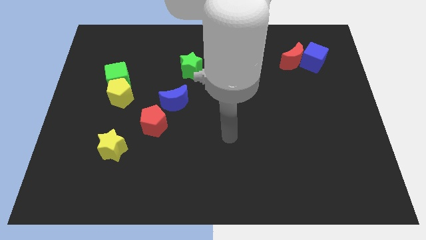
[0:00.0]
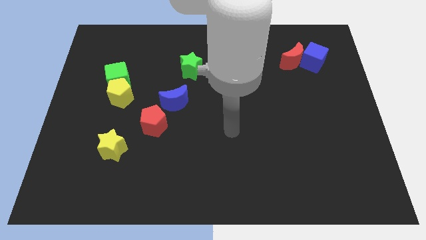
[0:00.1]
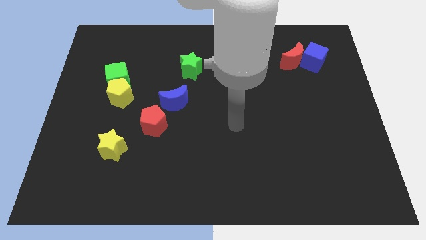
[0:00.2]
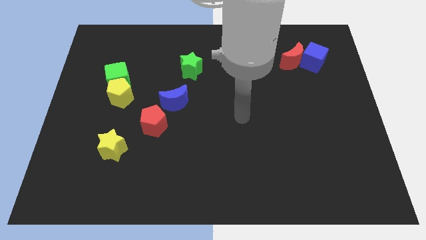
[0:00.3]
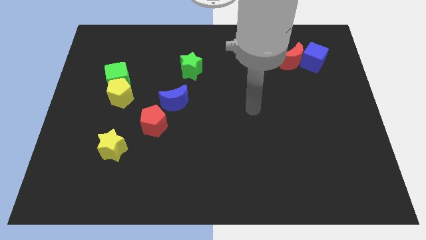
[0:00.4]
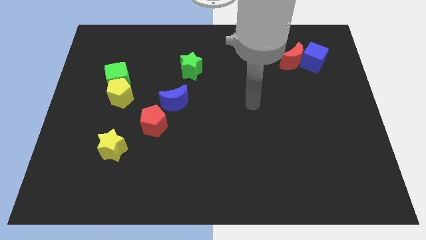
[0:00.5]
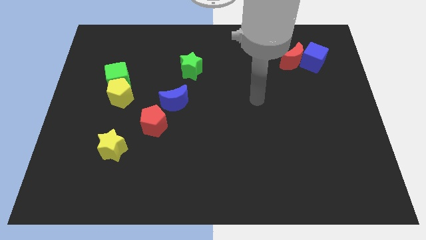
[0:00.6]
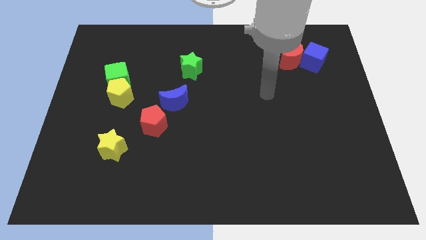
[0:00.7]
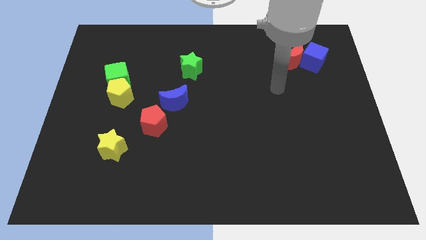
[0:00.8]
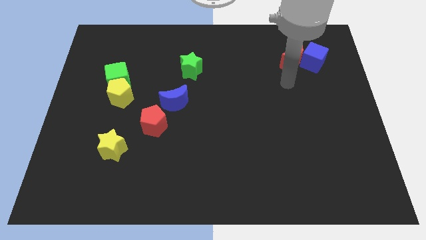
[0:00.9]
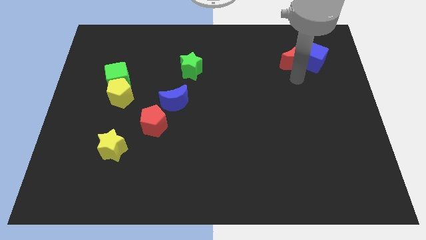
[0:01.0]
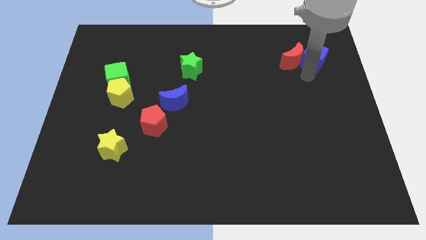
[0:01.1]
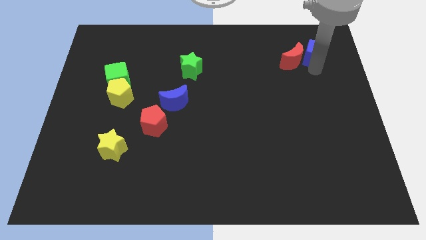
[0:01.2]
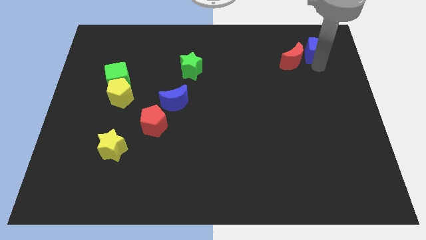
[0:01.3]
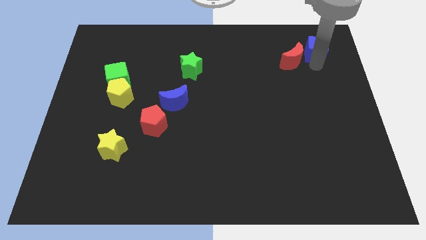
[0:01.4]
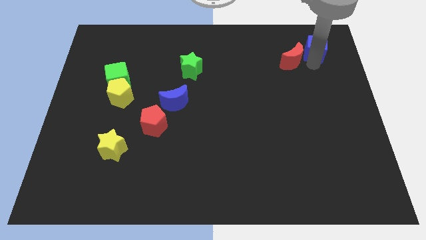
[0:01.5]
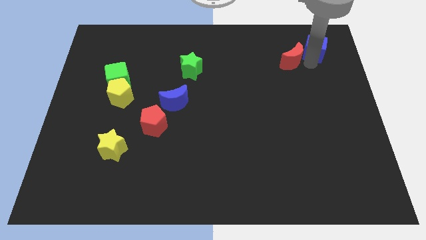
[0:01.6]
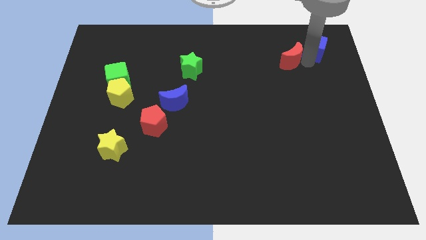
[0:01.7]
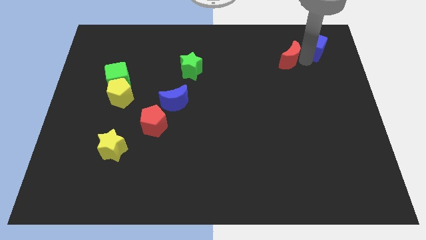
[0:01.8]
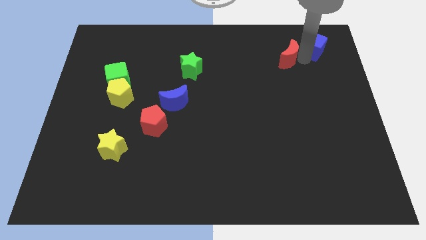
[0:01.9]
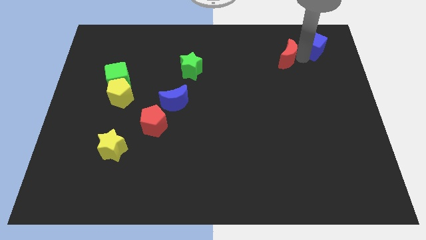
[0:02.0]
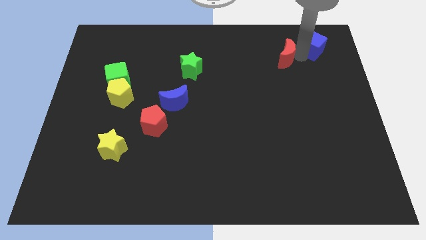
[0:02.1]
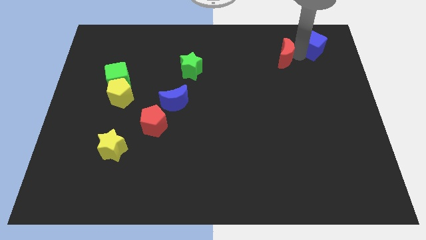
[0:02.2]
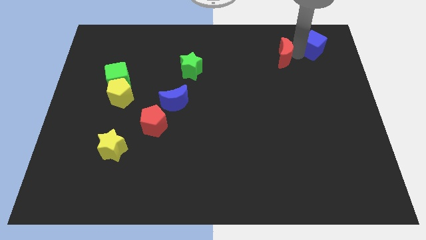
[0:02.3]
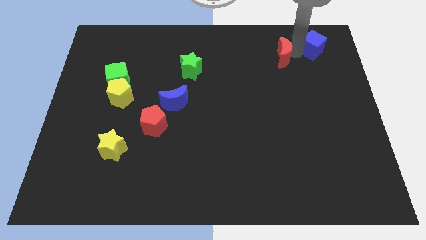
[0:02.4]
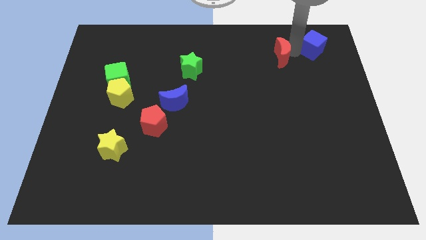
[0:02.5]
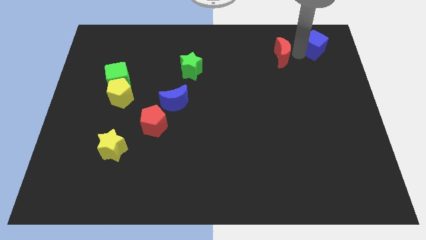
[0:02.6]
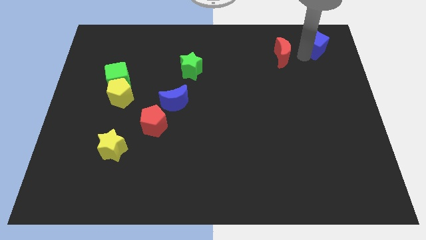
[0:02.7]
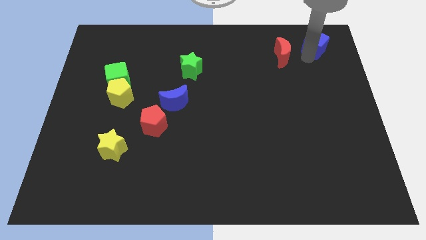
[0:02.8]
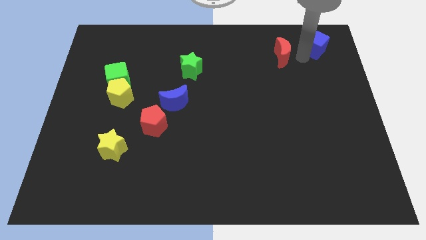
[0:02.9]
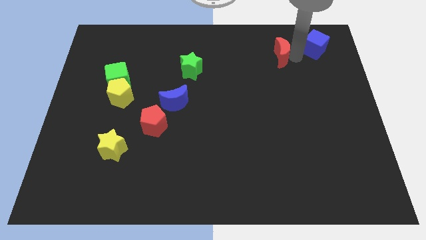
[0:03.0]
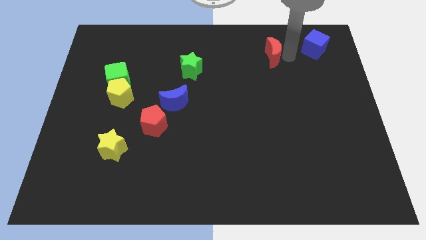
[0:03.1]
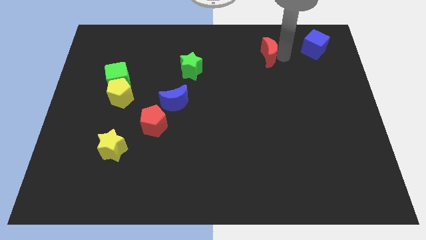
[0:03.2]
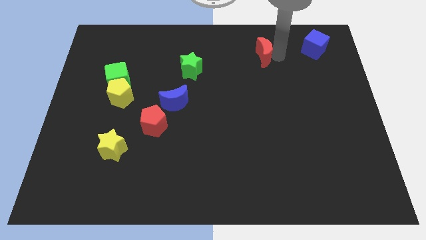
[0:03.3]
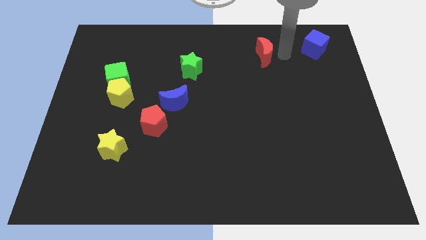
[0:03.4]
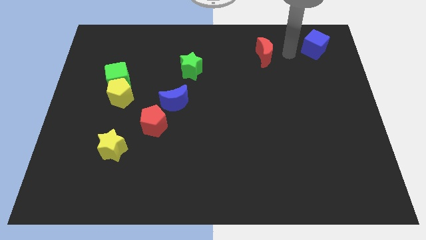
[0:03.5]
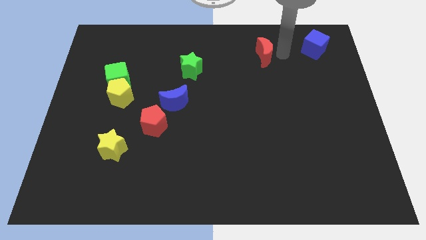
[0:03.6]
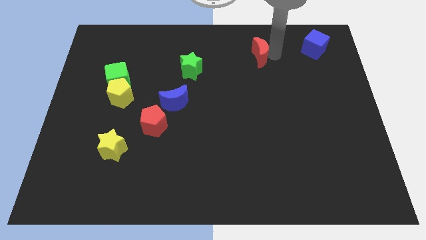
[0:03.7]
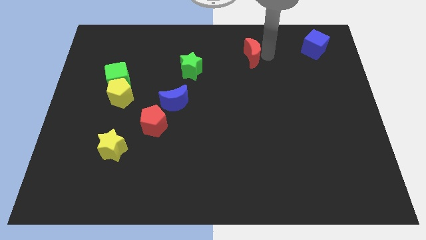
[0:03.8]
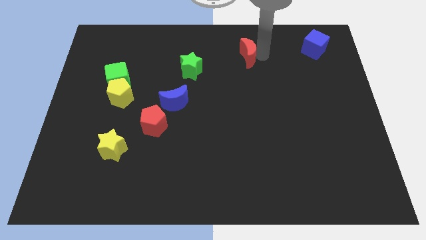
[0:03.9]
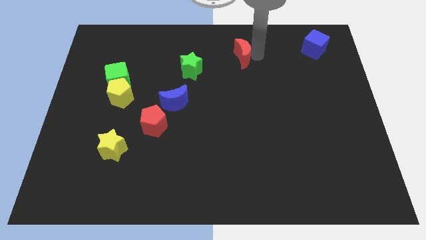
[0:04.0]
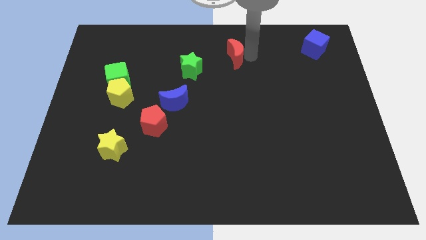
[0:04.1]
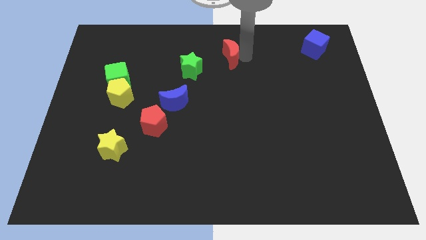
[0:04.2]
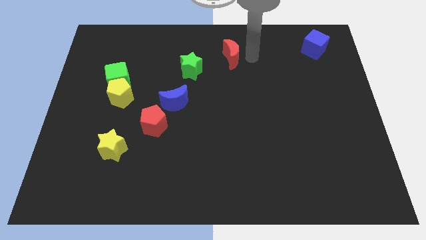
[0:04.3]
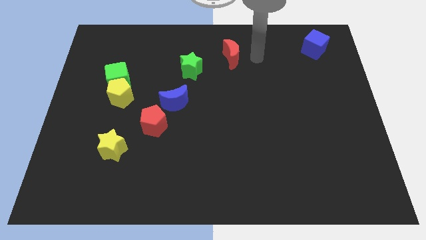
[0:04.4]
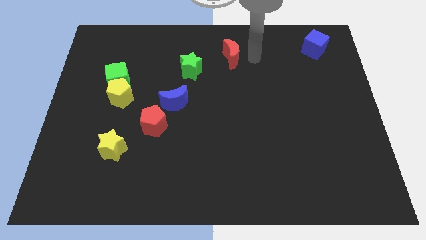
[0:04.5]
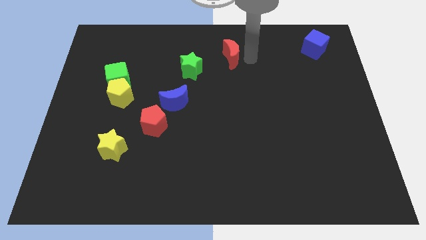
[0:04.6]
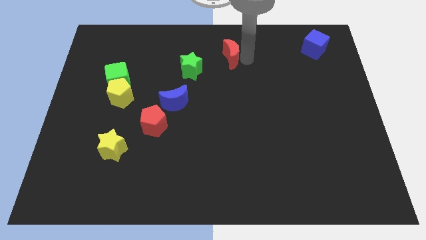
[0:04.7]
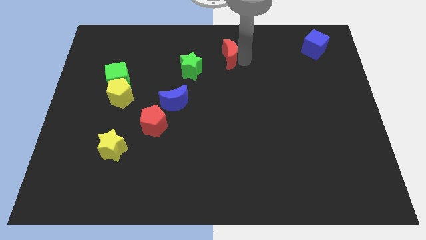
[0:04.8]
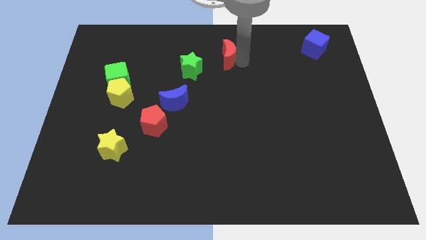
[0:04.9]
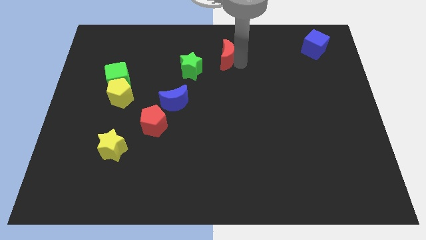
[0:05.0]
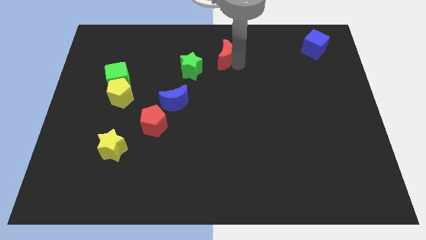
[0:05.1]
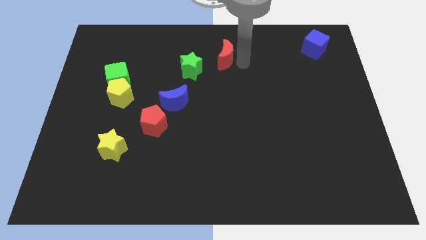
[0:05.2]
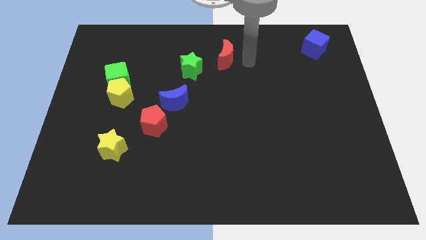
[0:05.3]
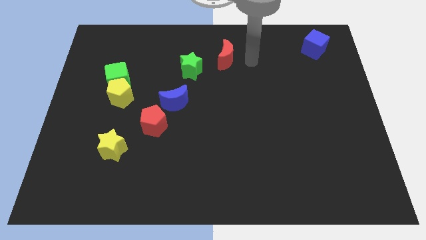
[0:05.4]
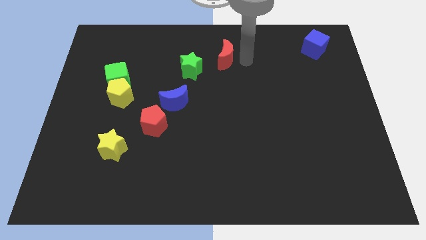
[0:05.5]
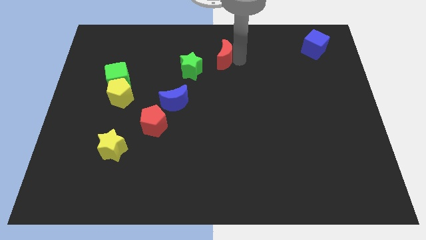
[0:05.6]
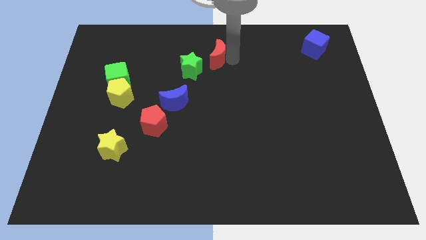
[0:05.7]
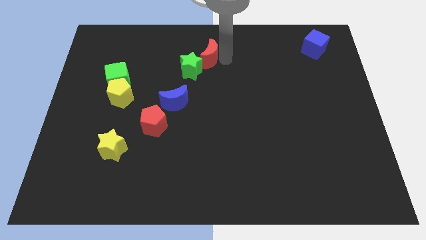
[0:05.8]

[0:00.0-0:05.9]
push the red moon left

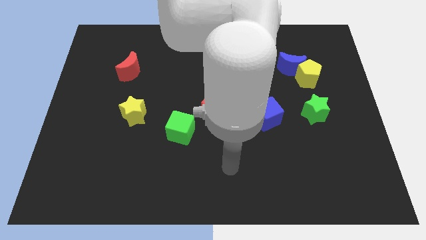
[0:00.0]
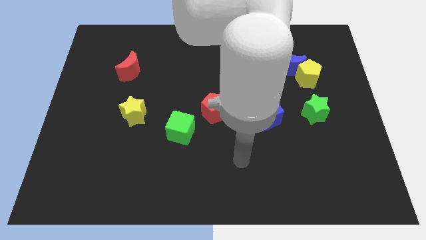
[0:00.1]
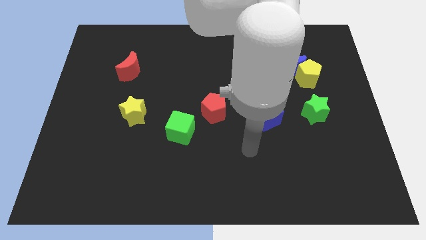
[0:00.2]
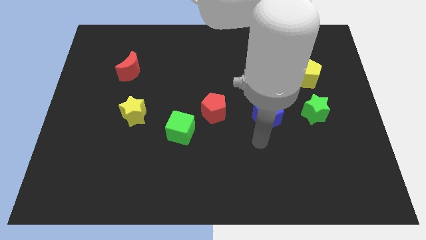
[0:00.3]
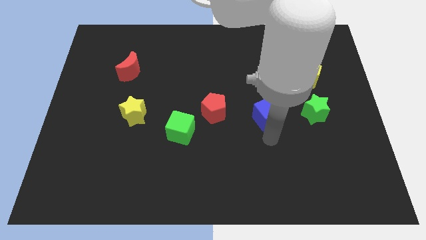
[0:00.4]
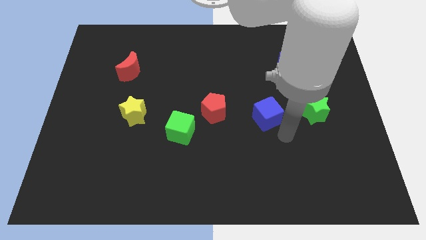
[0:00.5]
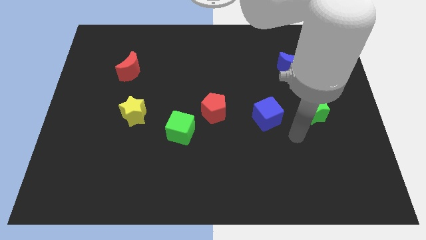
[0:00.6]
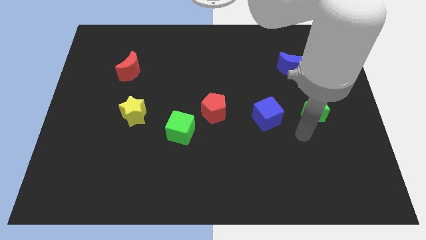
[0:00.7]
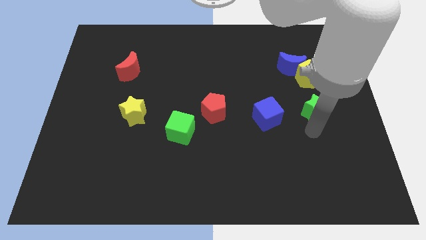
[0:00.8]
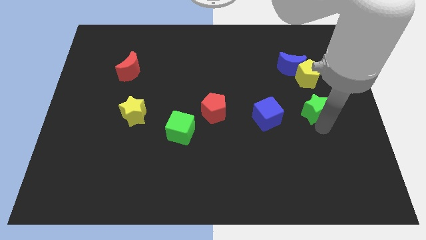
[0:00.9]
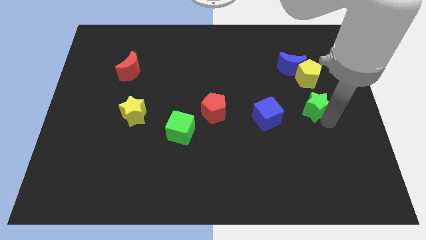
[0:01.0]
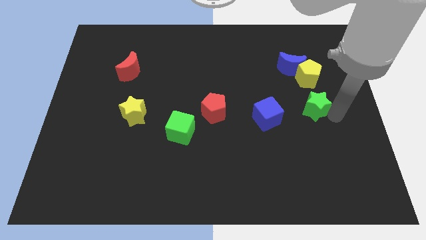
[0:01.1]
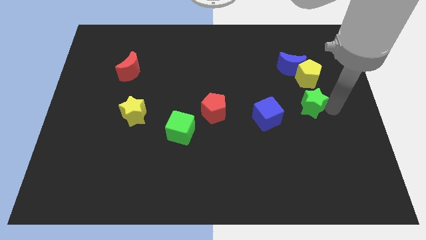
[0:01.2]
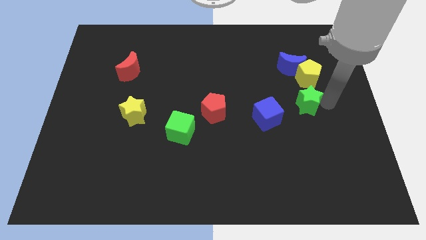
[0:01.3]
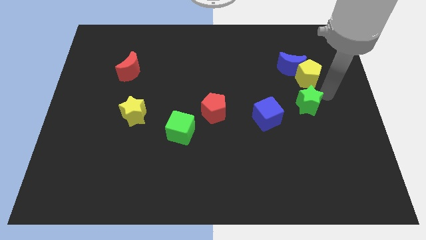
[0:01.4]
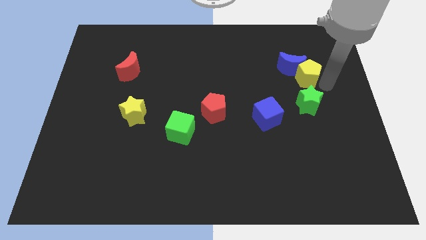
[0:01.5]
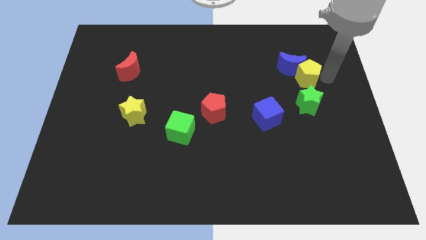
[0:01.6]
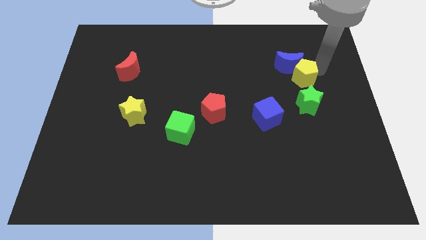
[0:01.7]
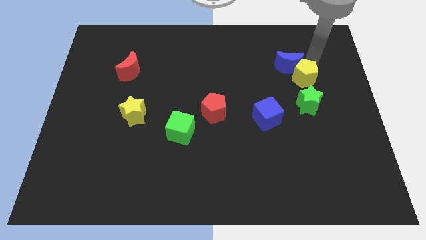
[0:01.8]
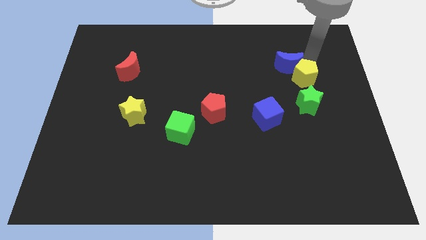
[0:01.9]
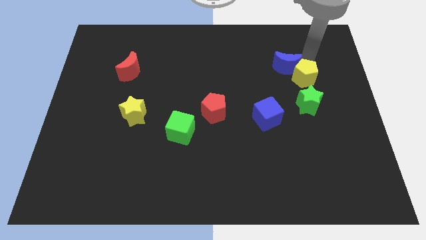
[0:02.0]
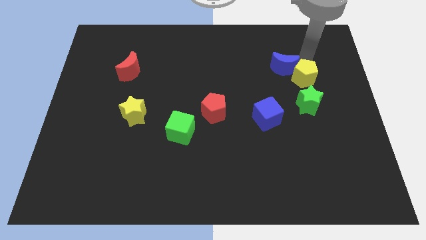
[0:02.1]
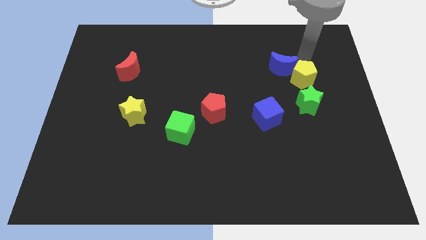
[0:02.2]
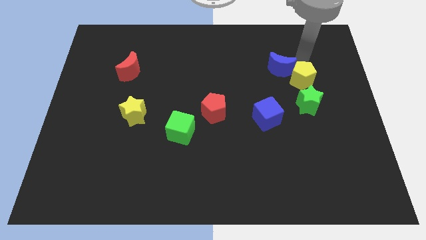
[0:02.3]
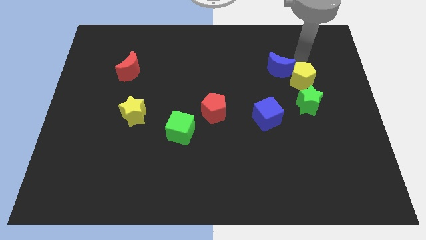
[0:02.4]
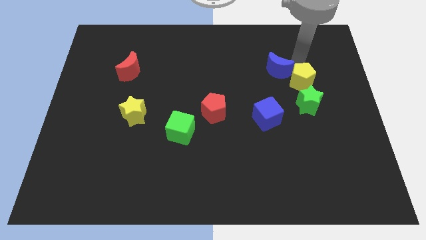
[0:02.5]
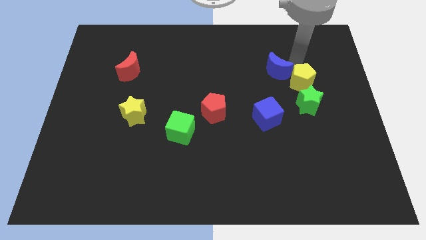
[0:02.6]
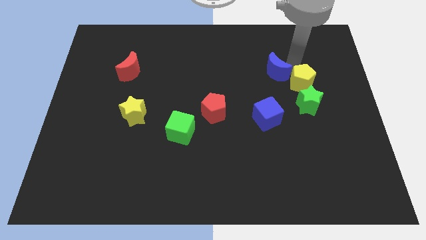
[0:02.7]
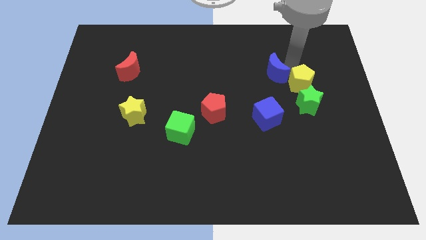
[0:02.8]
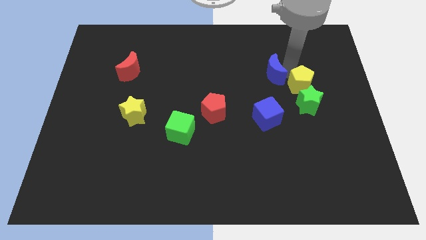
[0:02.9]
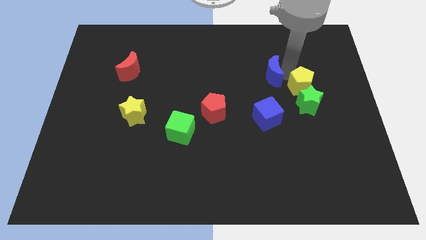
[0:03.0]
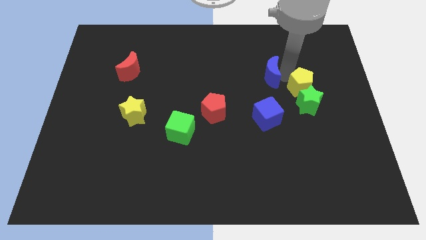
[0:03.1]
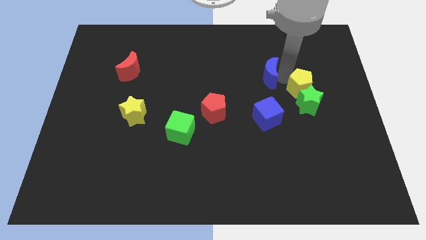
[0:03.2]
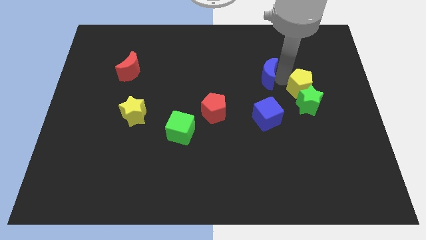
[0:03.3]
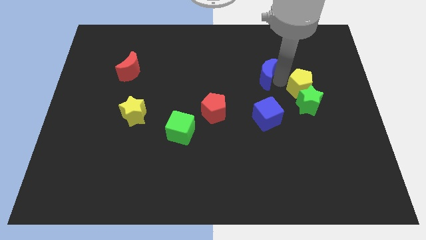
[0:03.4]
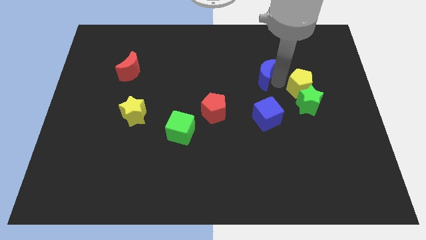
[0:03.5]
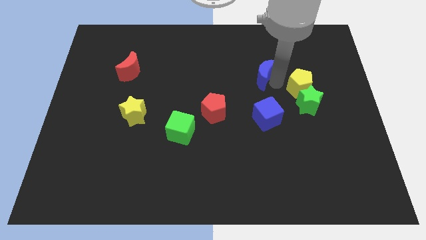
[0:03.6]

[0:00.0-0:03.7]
push the blue moon a bit left
